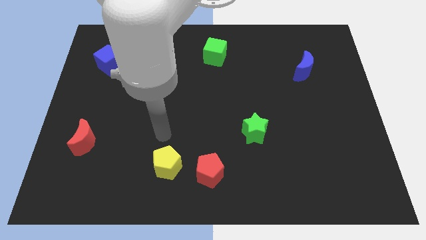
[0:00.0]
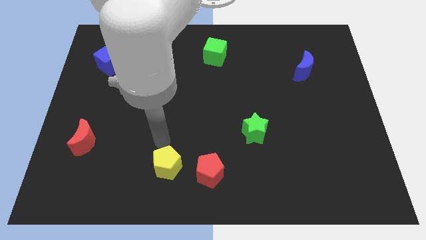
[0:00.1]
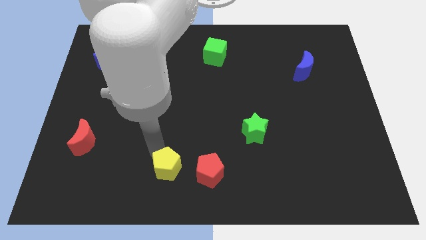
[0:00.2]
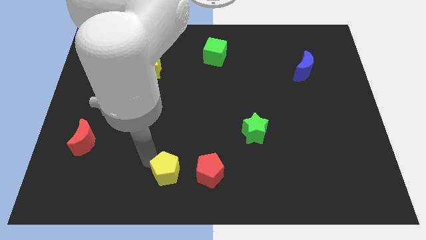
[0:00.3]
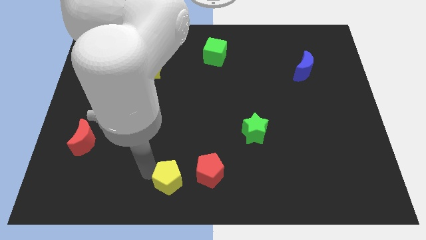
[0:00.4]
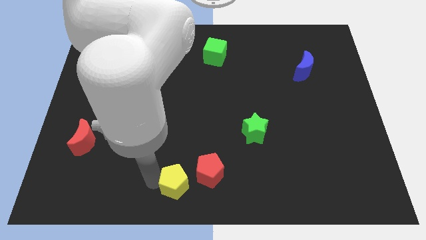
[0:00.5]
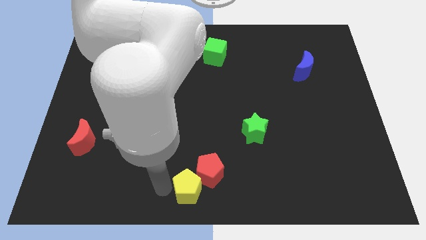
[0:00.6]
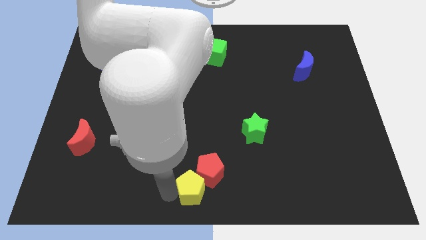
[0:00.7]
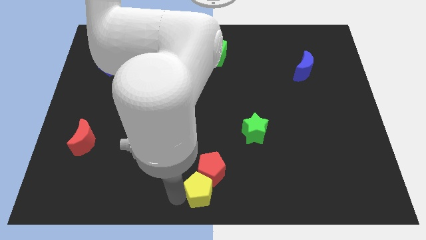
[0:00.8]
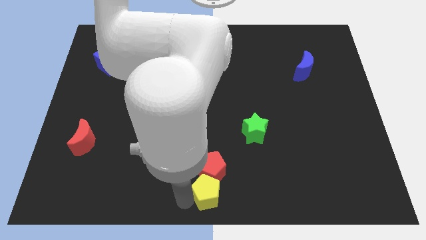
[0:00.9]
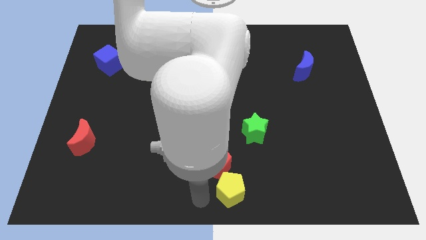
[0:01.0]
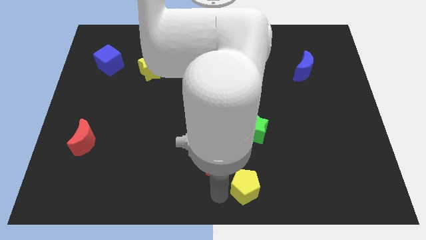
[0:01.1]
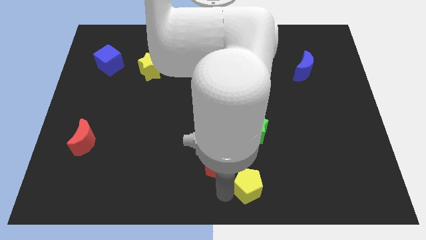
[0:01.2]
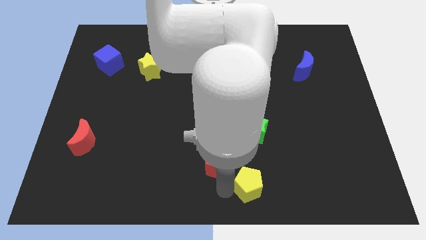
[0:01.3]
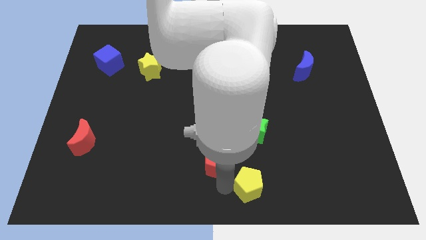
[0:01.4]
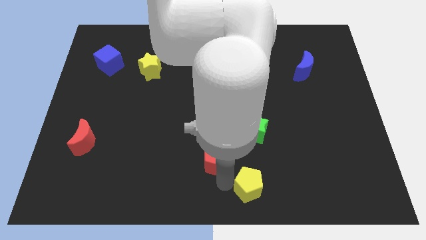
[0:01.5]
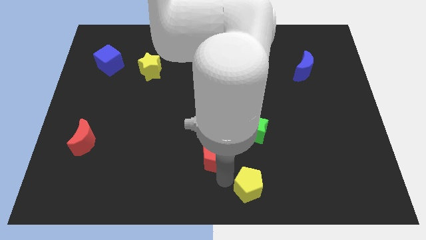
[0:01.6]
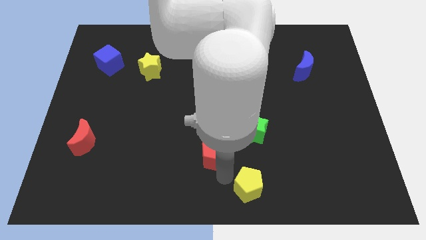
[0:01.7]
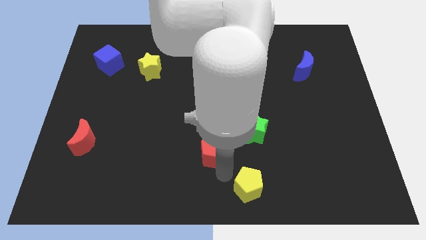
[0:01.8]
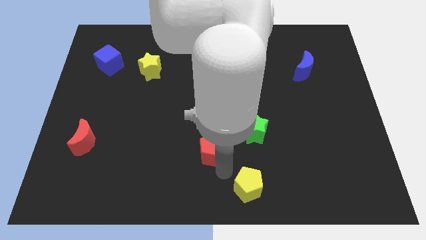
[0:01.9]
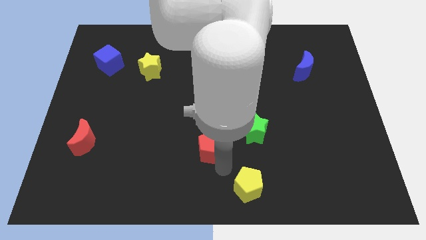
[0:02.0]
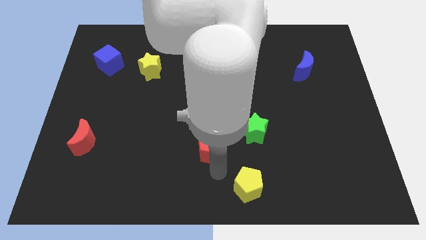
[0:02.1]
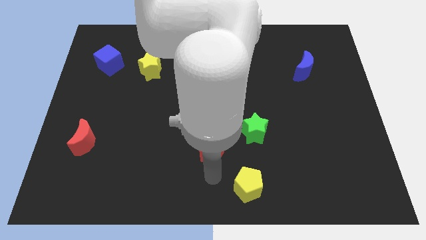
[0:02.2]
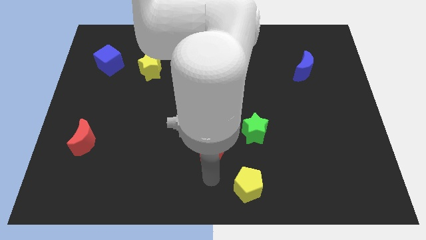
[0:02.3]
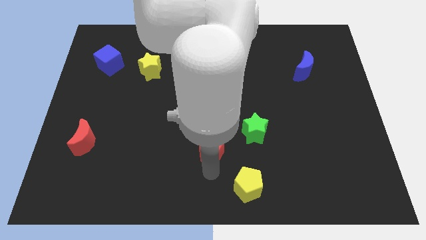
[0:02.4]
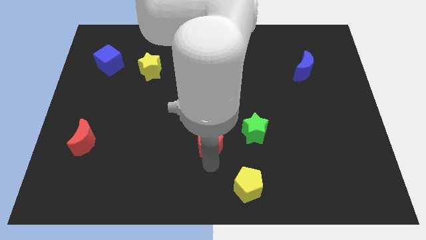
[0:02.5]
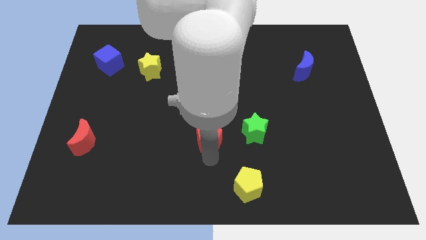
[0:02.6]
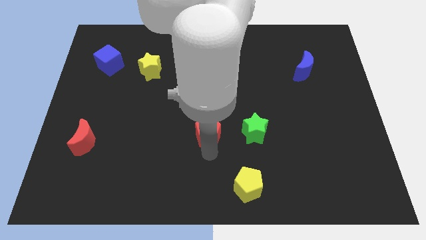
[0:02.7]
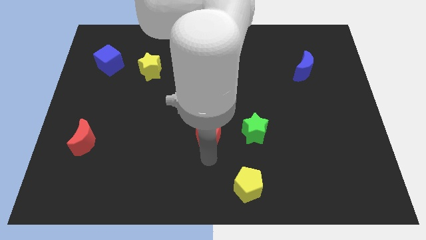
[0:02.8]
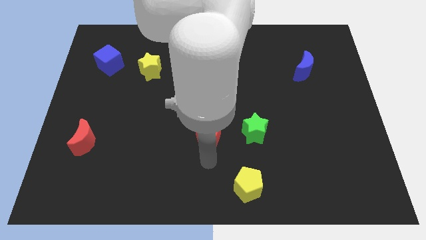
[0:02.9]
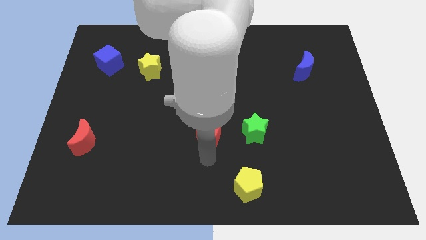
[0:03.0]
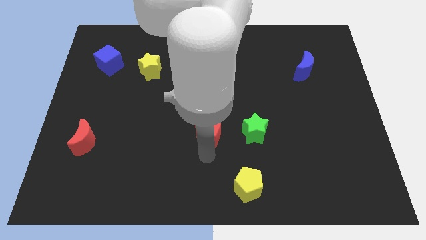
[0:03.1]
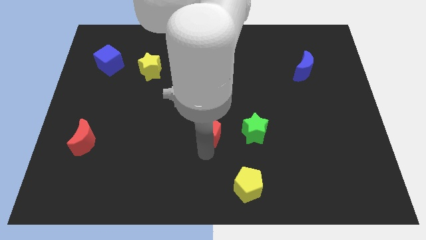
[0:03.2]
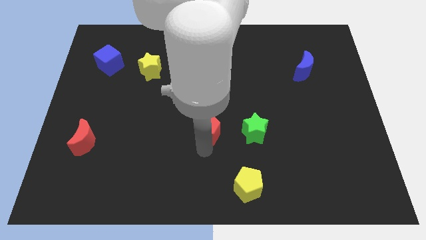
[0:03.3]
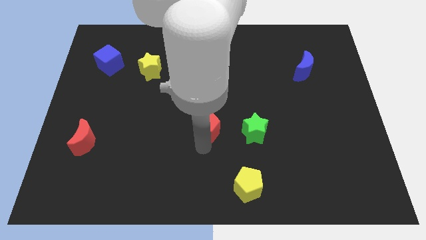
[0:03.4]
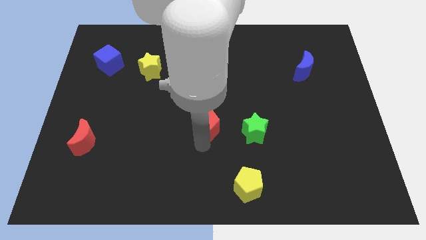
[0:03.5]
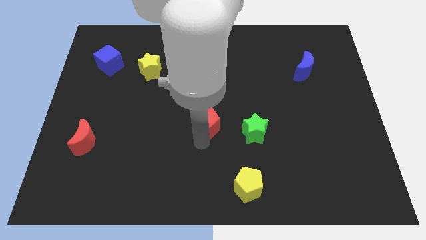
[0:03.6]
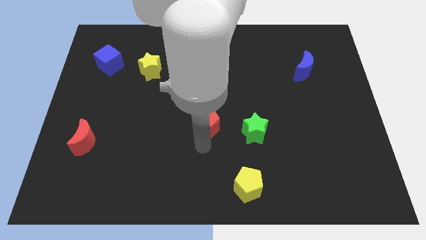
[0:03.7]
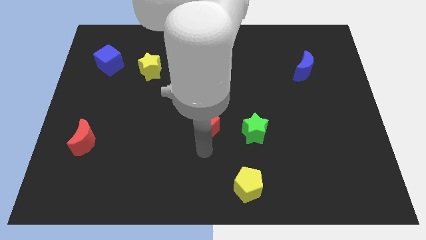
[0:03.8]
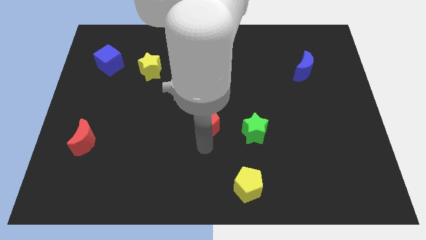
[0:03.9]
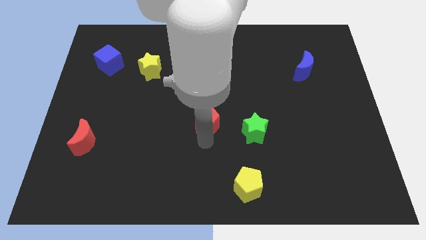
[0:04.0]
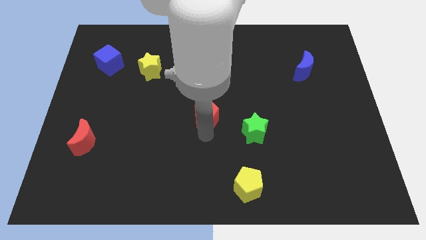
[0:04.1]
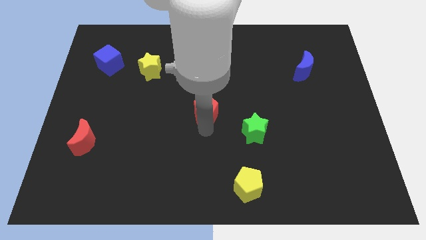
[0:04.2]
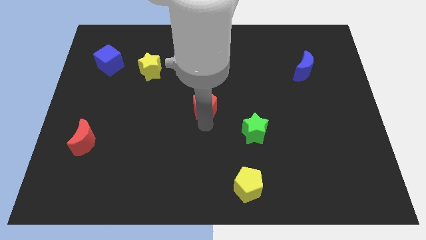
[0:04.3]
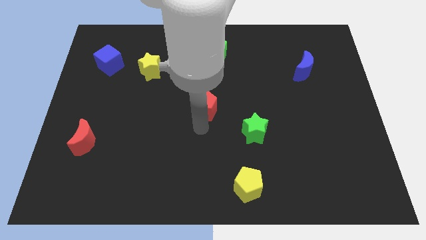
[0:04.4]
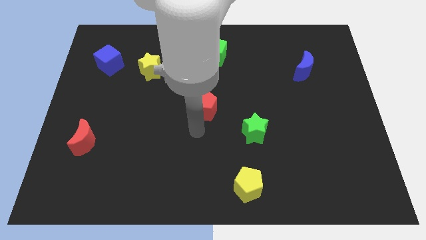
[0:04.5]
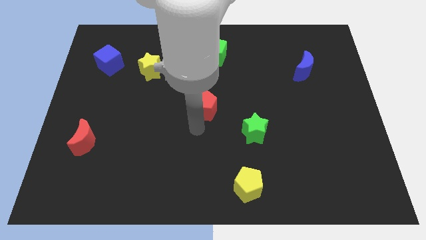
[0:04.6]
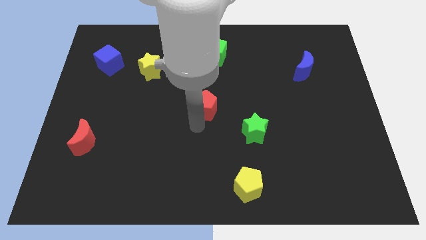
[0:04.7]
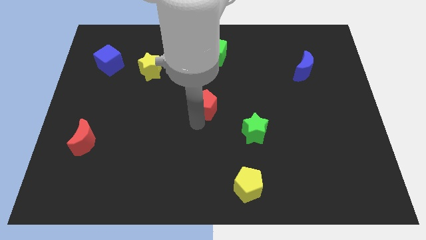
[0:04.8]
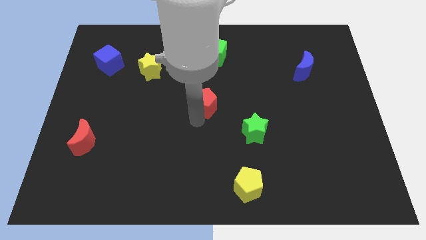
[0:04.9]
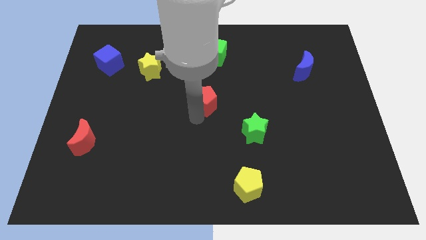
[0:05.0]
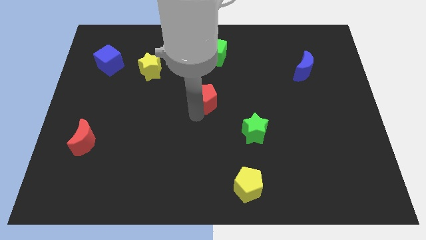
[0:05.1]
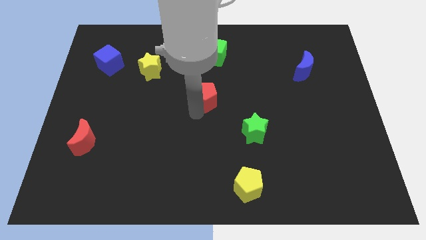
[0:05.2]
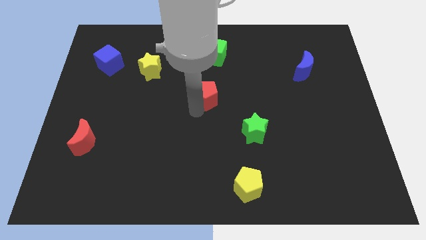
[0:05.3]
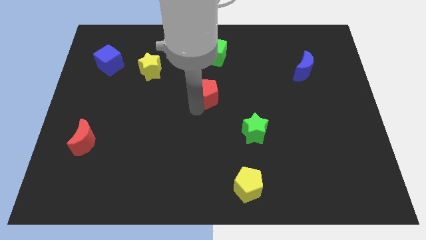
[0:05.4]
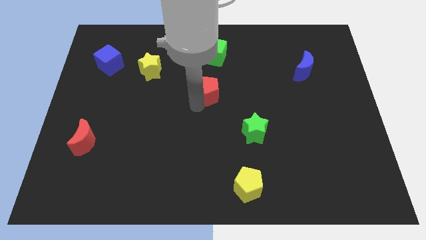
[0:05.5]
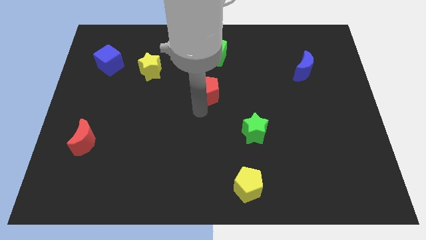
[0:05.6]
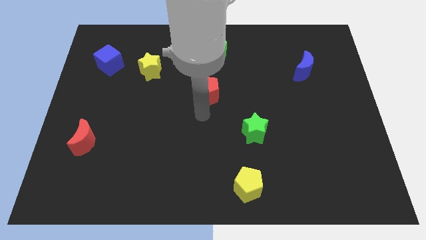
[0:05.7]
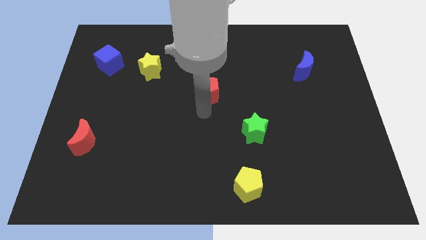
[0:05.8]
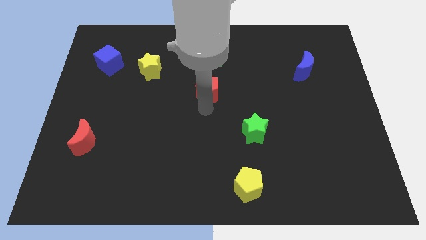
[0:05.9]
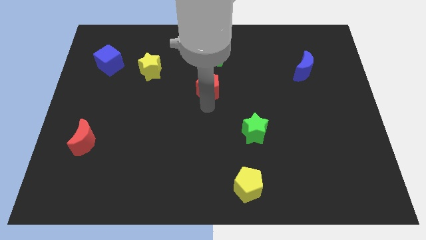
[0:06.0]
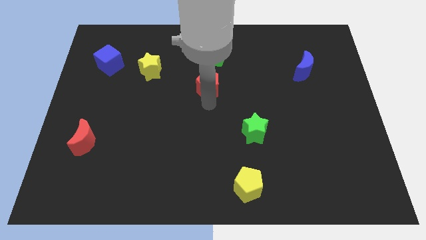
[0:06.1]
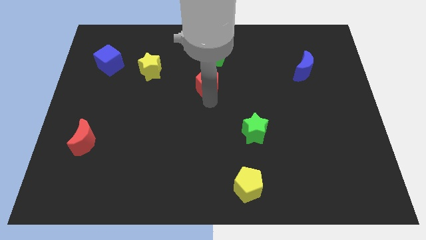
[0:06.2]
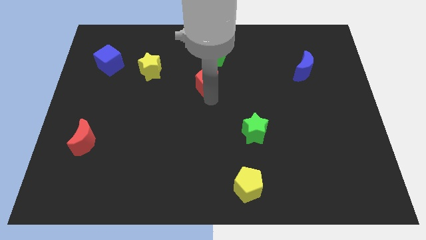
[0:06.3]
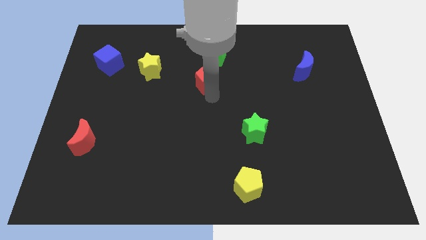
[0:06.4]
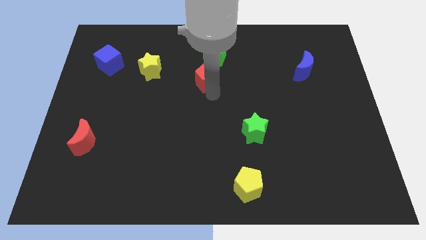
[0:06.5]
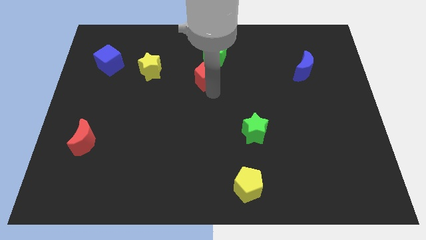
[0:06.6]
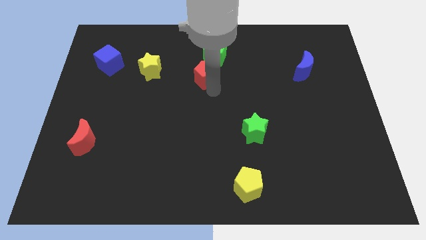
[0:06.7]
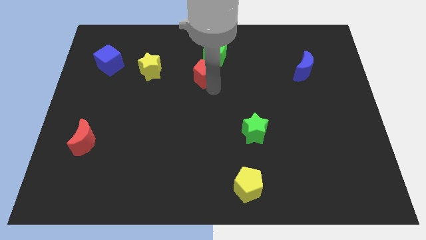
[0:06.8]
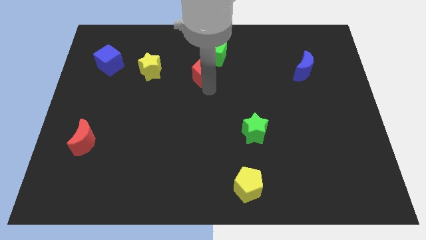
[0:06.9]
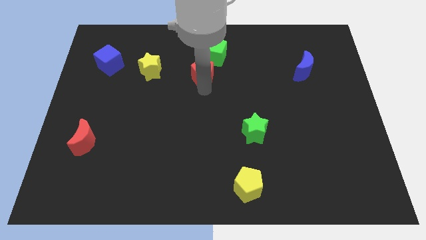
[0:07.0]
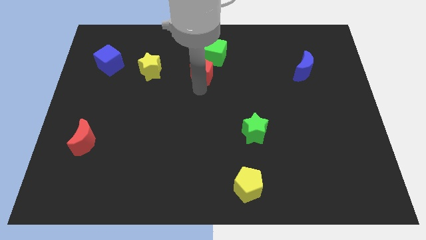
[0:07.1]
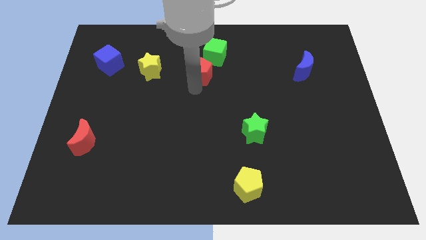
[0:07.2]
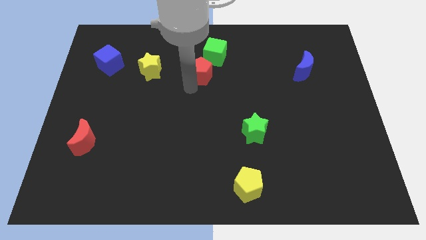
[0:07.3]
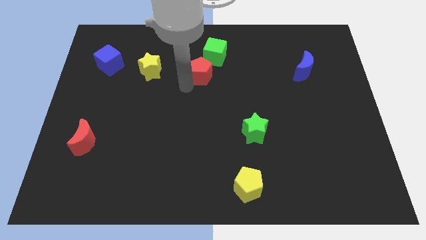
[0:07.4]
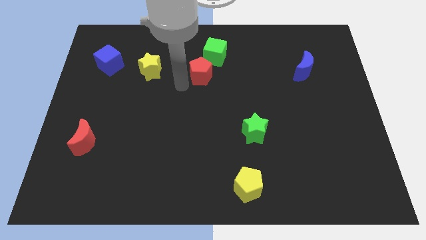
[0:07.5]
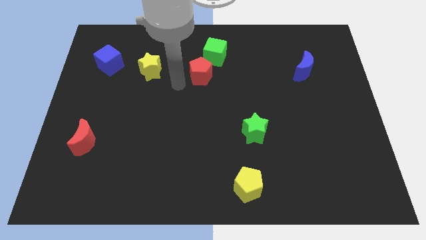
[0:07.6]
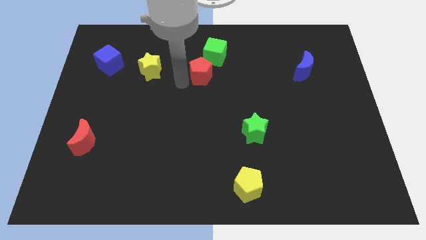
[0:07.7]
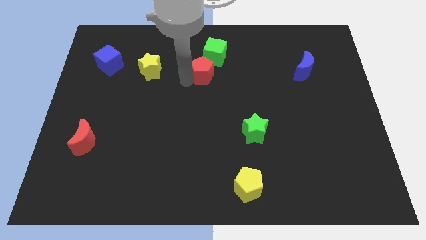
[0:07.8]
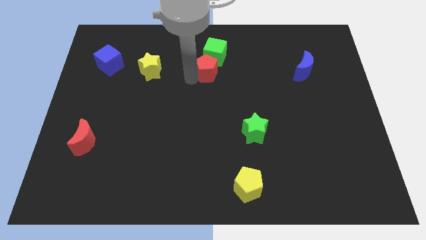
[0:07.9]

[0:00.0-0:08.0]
push the red pentagon to the green cube

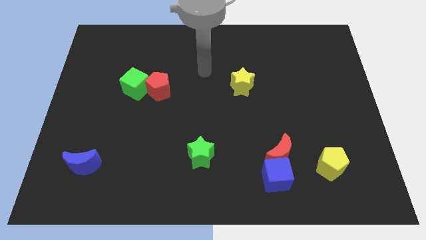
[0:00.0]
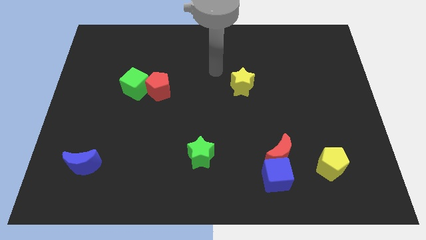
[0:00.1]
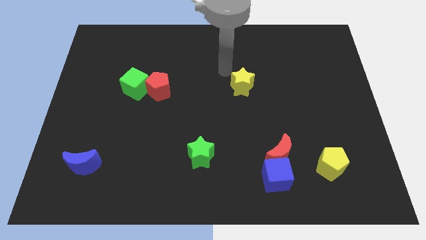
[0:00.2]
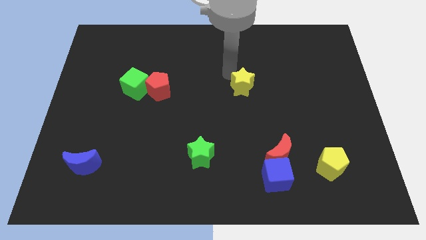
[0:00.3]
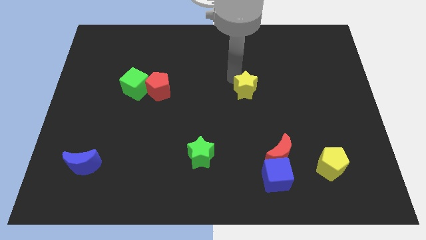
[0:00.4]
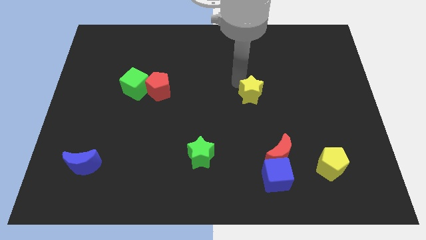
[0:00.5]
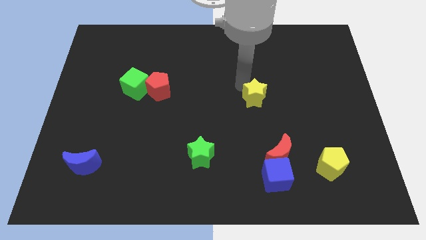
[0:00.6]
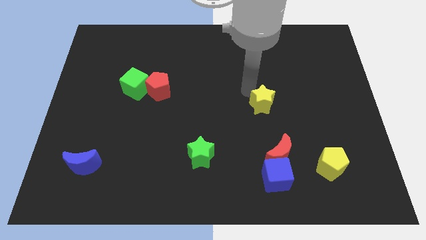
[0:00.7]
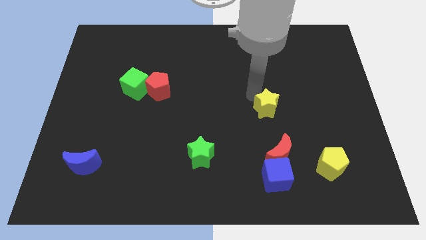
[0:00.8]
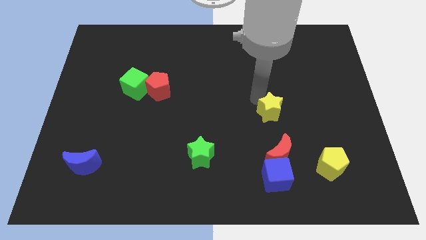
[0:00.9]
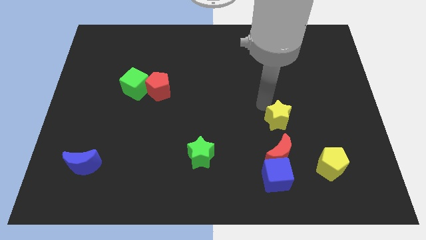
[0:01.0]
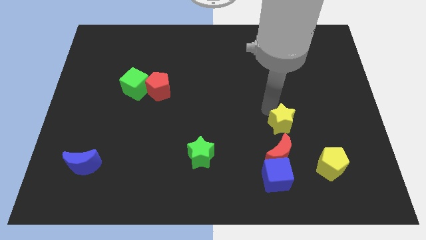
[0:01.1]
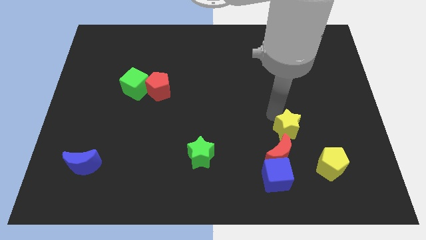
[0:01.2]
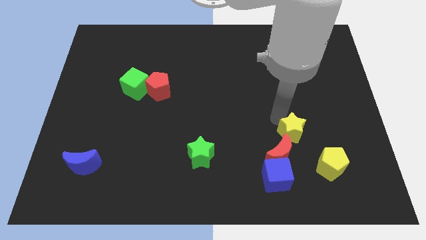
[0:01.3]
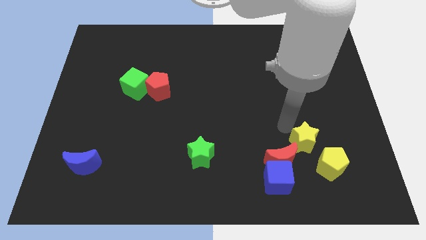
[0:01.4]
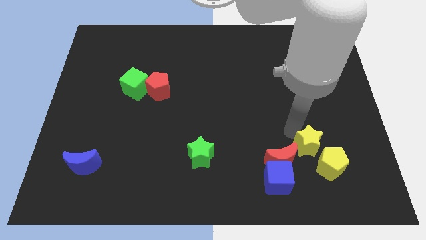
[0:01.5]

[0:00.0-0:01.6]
move the yellow star close to the yellow pentagon
